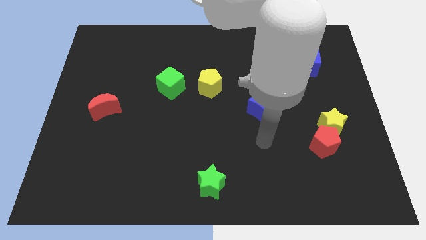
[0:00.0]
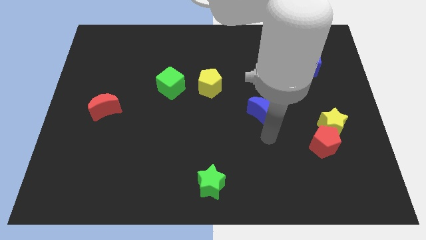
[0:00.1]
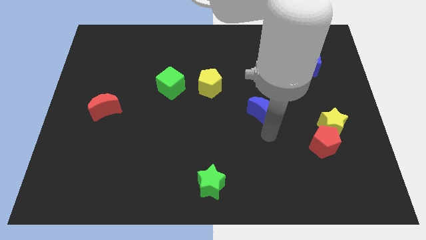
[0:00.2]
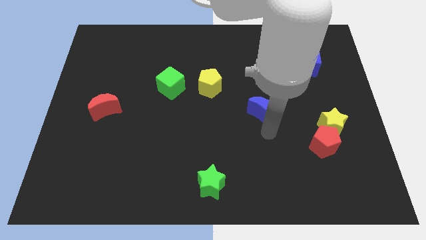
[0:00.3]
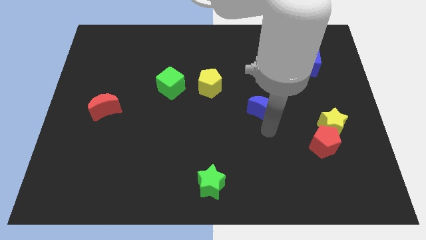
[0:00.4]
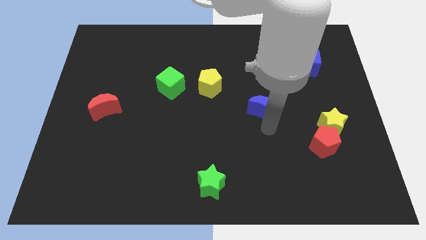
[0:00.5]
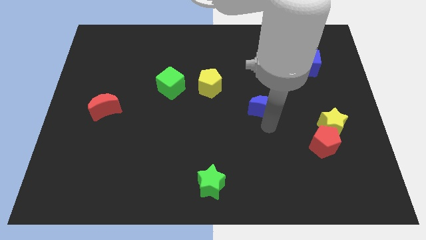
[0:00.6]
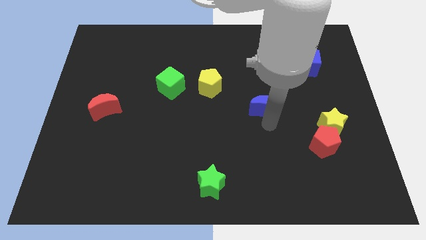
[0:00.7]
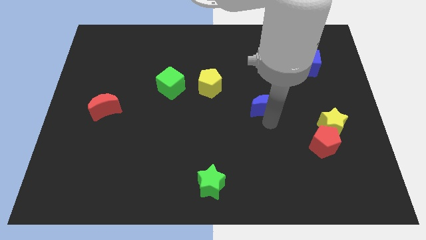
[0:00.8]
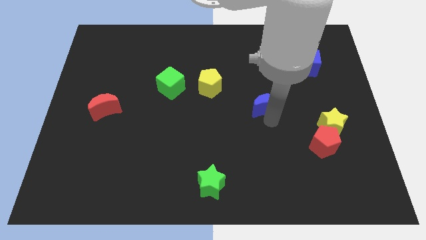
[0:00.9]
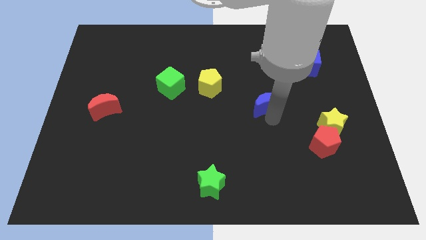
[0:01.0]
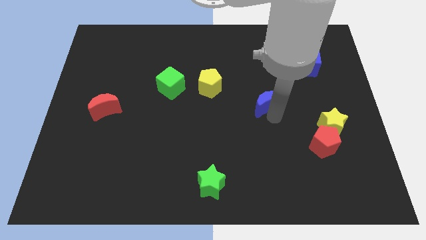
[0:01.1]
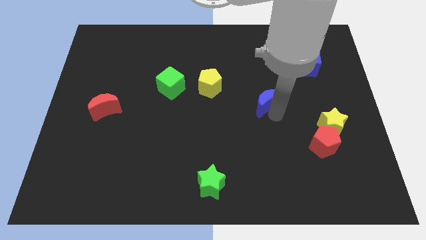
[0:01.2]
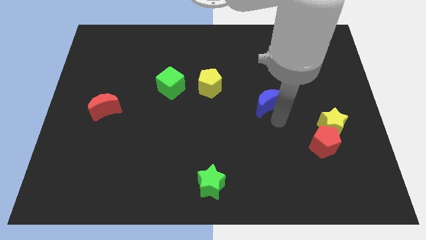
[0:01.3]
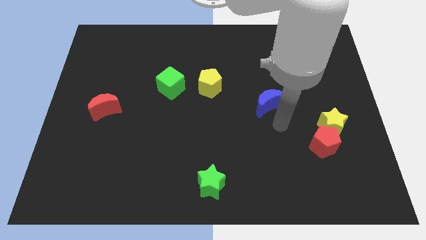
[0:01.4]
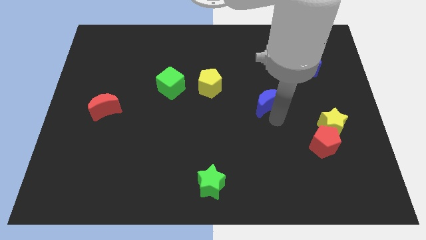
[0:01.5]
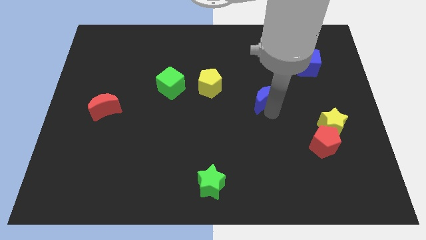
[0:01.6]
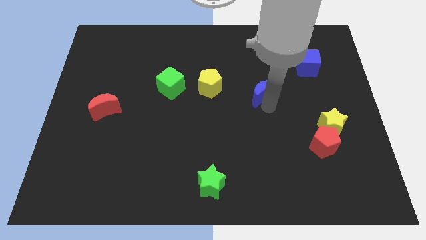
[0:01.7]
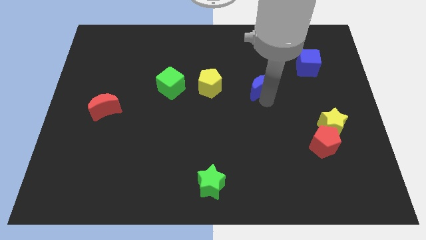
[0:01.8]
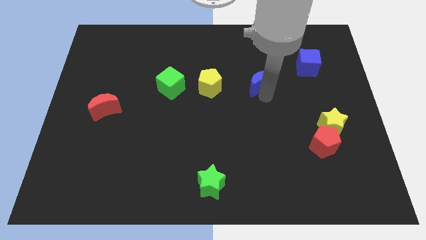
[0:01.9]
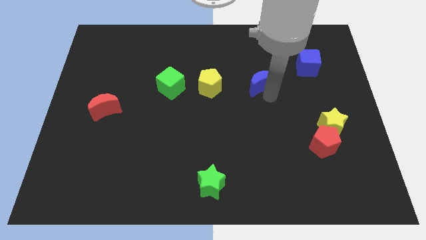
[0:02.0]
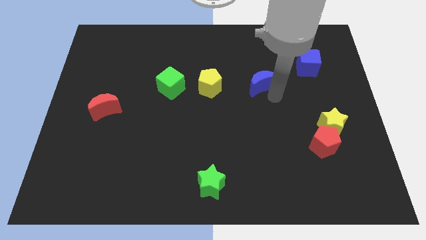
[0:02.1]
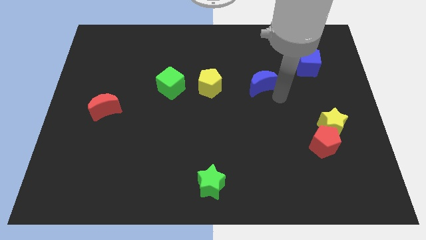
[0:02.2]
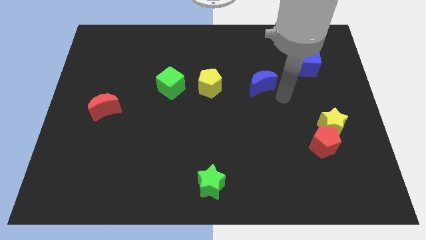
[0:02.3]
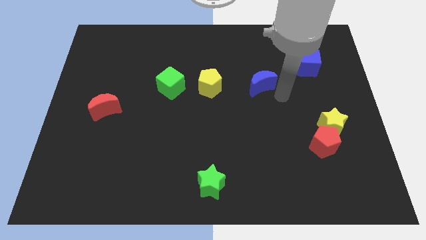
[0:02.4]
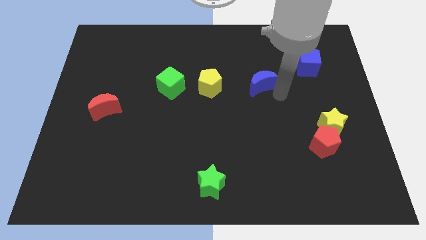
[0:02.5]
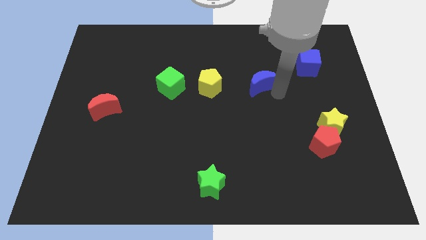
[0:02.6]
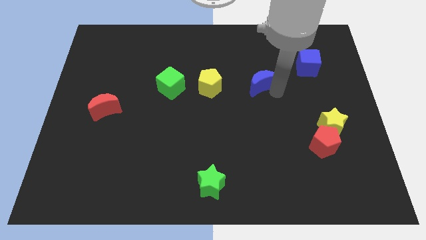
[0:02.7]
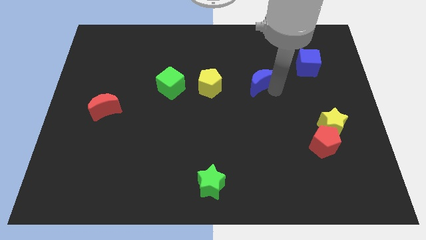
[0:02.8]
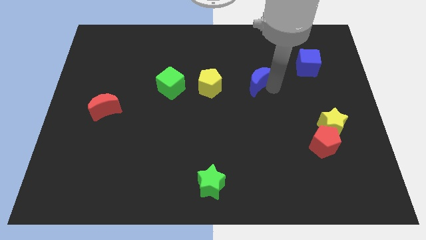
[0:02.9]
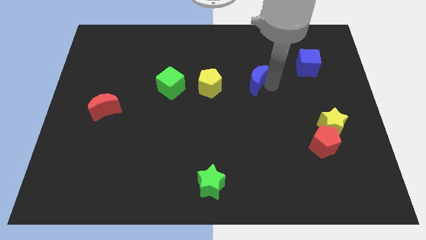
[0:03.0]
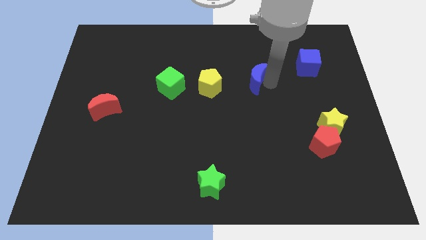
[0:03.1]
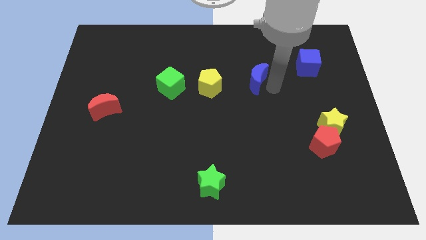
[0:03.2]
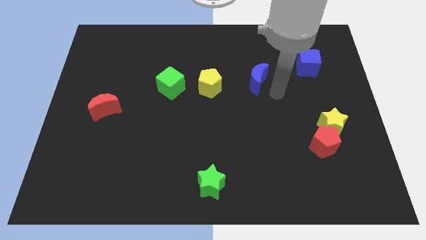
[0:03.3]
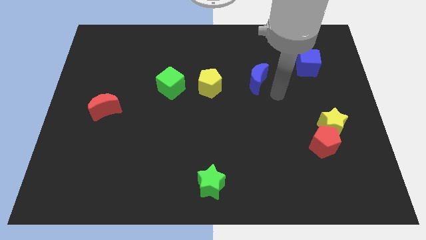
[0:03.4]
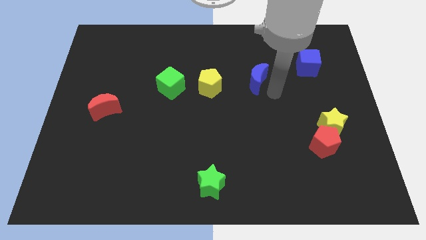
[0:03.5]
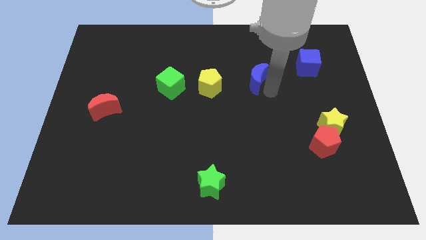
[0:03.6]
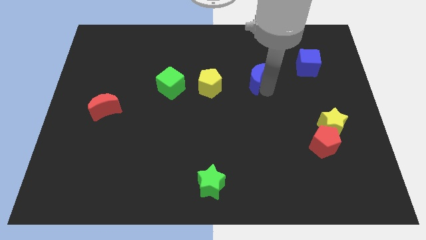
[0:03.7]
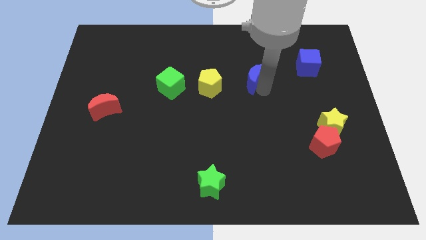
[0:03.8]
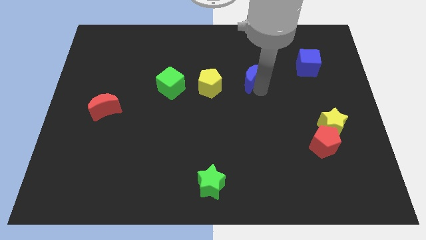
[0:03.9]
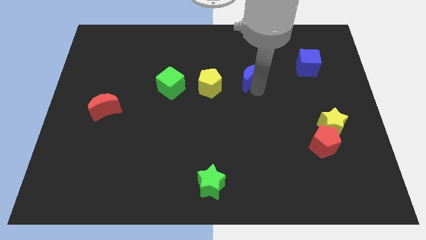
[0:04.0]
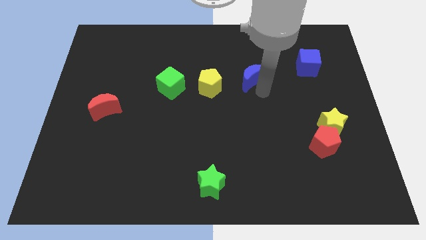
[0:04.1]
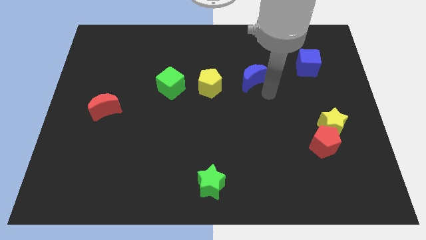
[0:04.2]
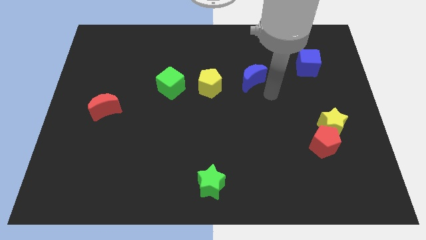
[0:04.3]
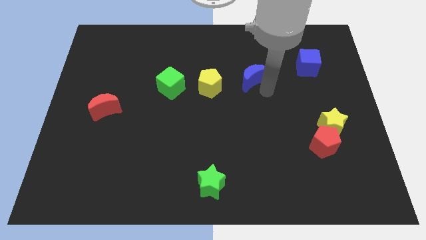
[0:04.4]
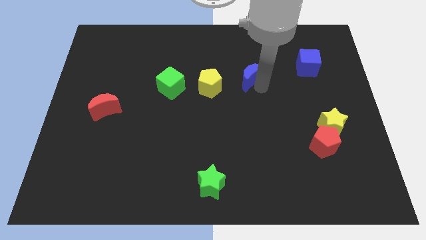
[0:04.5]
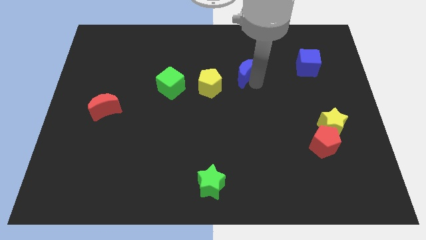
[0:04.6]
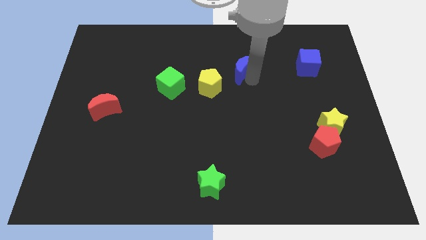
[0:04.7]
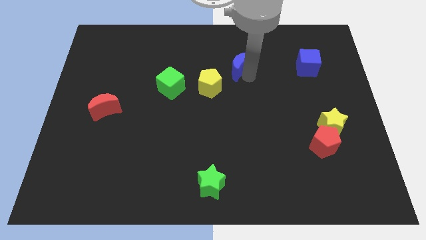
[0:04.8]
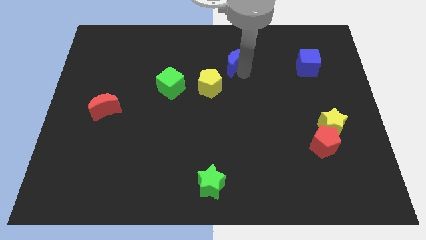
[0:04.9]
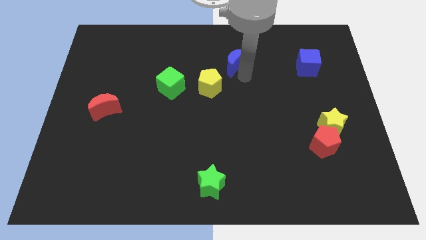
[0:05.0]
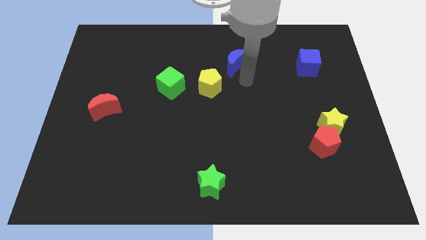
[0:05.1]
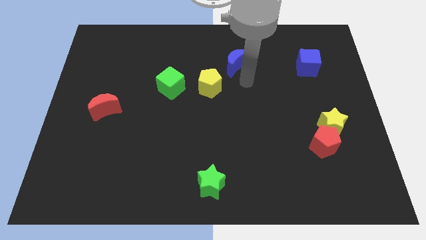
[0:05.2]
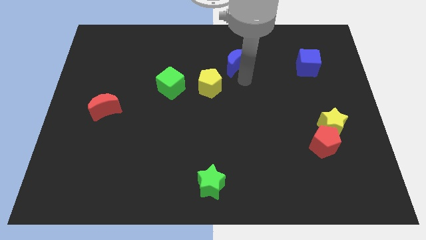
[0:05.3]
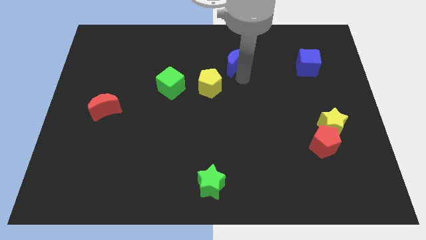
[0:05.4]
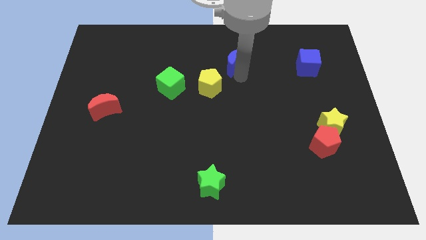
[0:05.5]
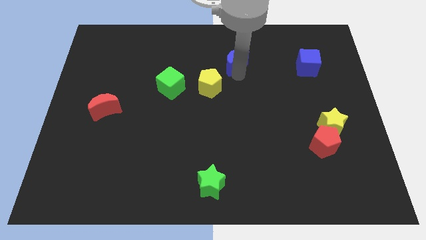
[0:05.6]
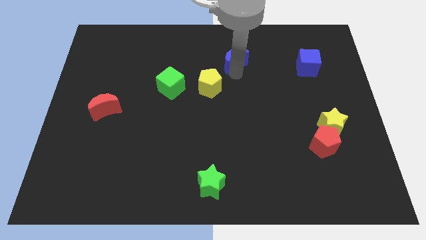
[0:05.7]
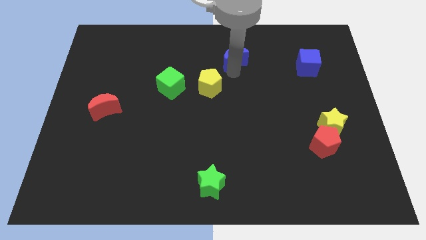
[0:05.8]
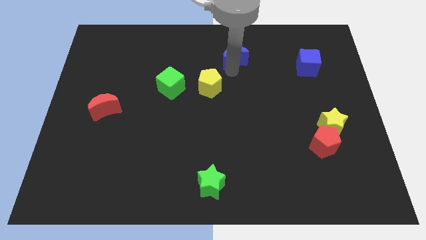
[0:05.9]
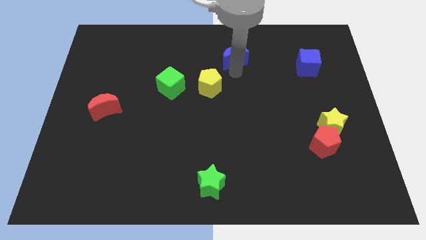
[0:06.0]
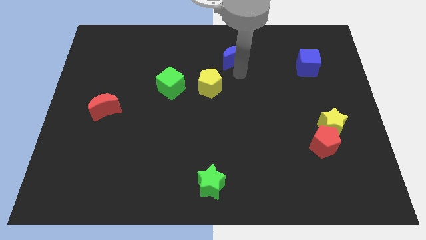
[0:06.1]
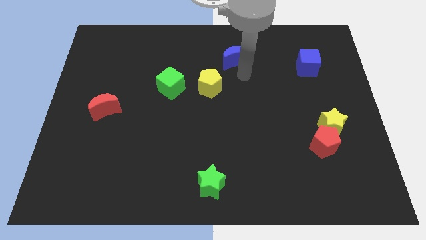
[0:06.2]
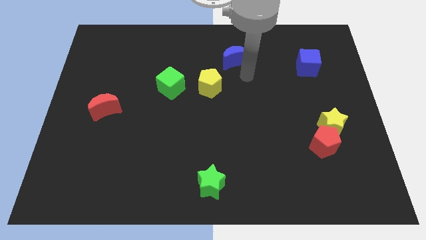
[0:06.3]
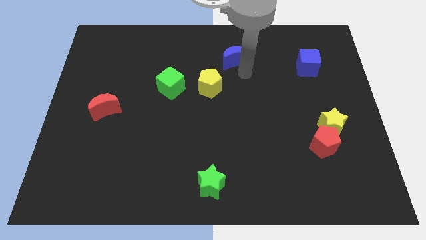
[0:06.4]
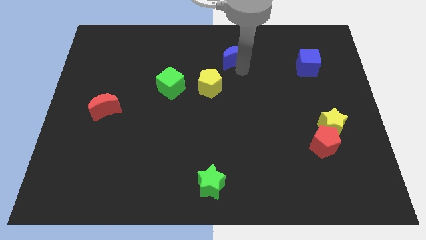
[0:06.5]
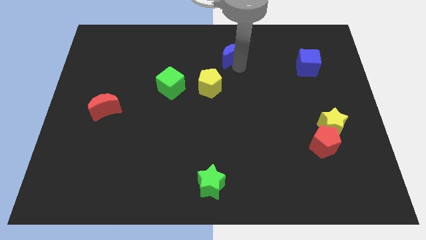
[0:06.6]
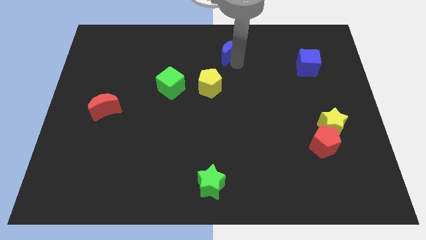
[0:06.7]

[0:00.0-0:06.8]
move the blue moon to the top side
